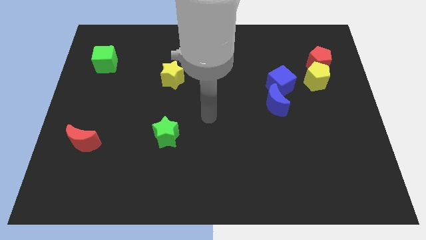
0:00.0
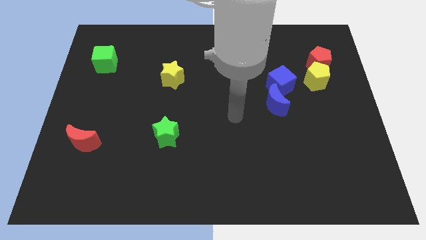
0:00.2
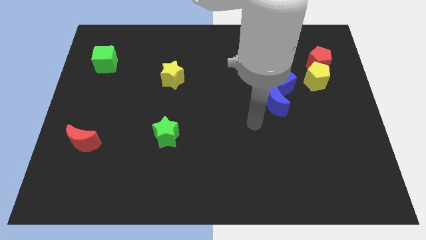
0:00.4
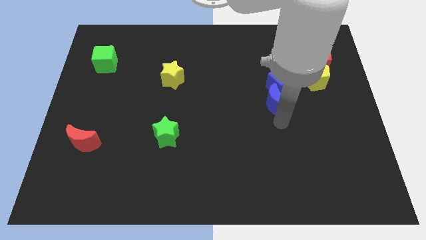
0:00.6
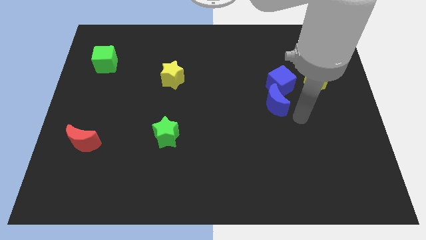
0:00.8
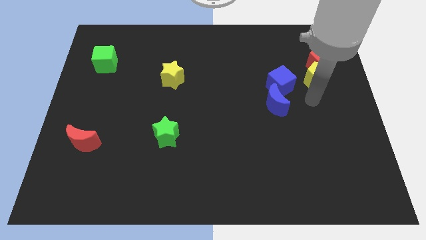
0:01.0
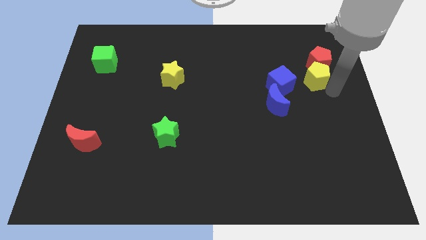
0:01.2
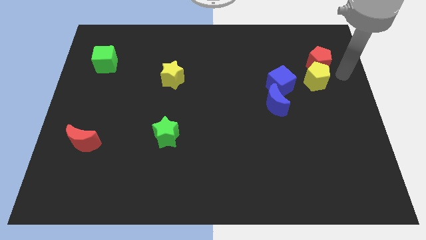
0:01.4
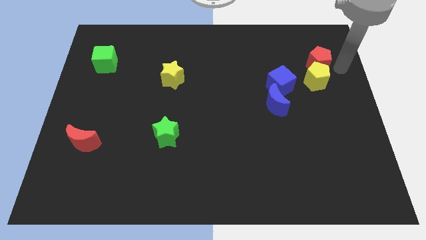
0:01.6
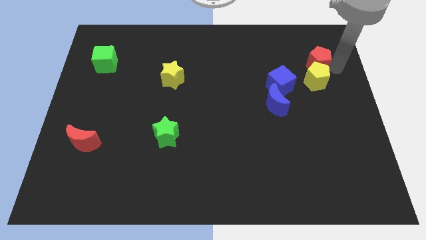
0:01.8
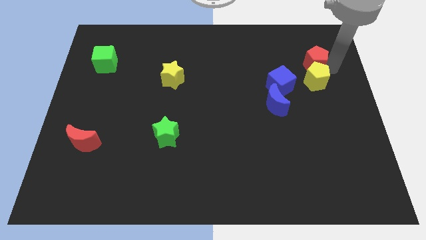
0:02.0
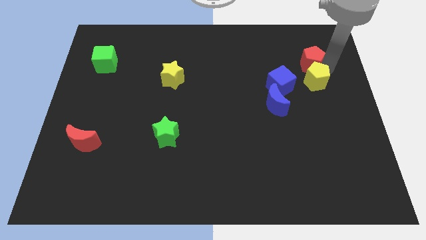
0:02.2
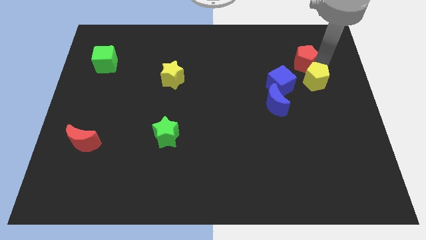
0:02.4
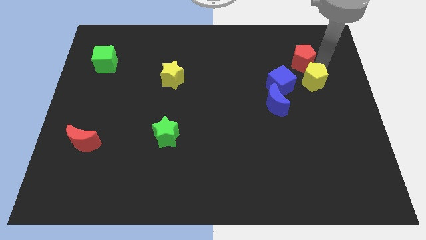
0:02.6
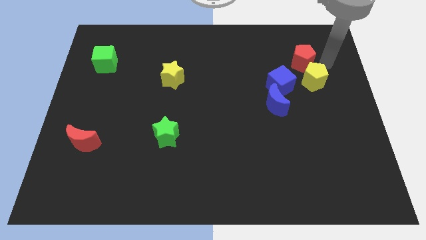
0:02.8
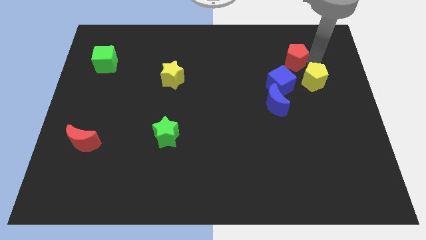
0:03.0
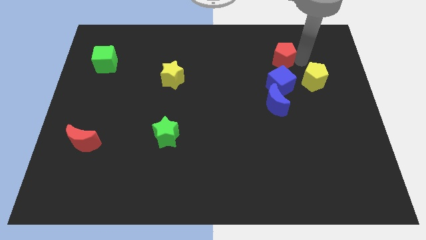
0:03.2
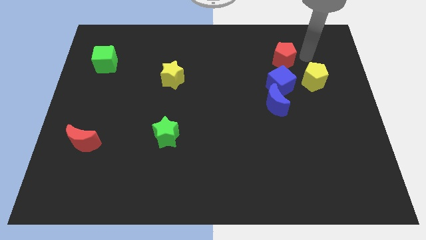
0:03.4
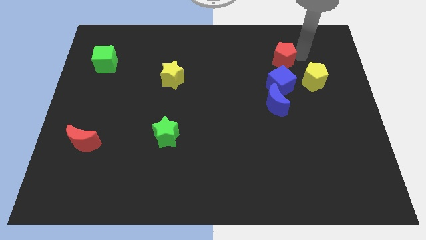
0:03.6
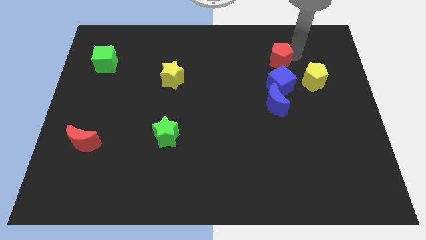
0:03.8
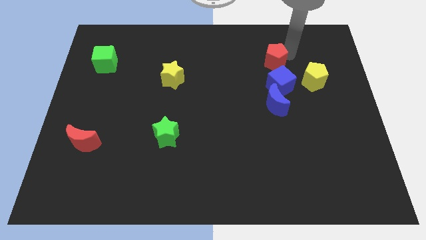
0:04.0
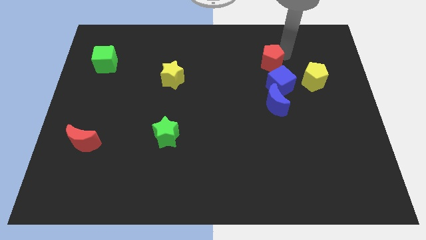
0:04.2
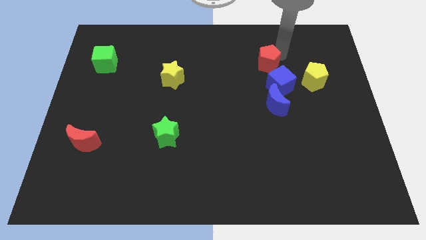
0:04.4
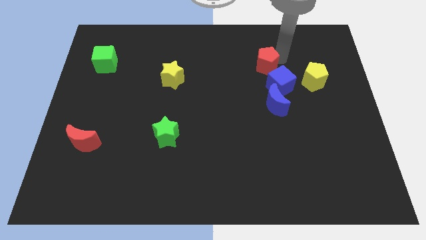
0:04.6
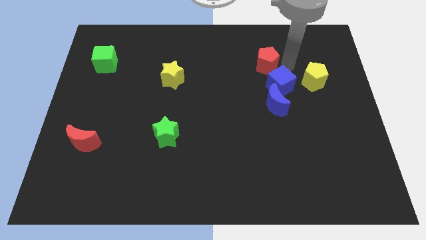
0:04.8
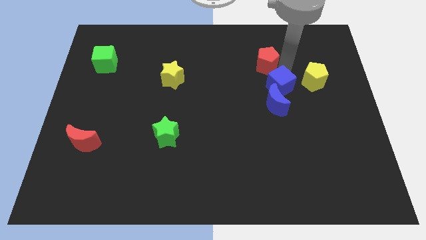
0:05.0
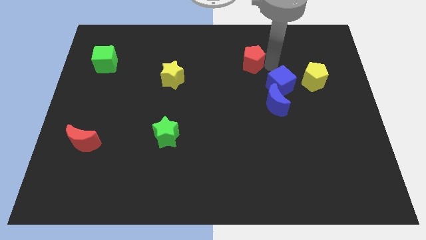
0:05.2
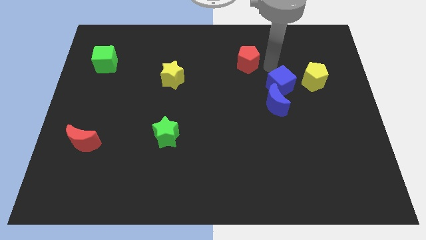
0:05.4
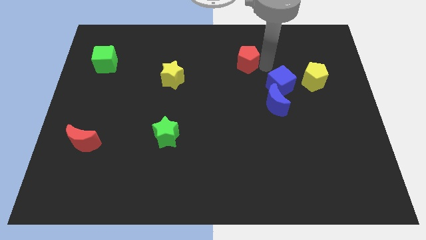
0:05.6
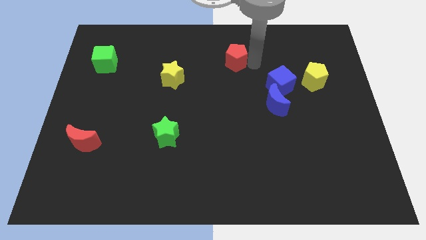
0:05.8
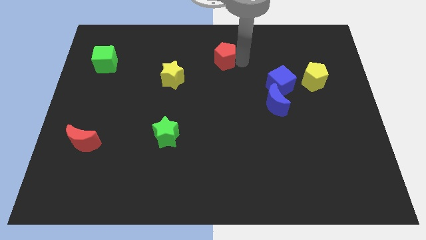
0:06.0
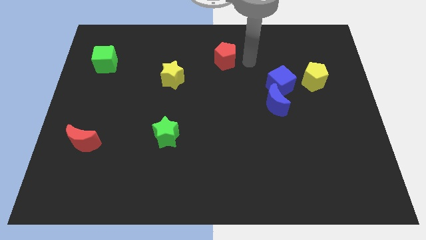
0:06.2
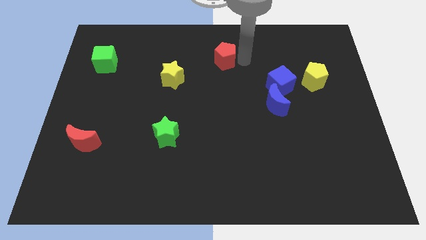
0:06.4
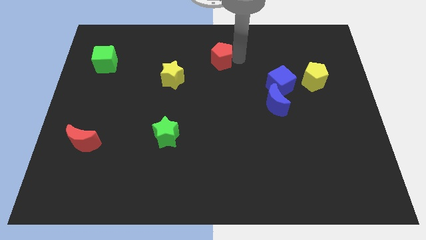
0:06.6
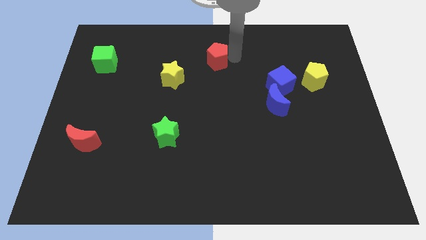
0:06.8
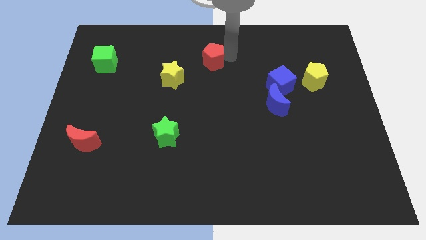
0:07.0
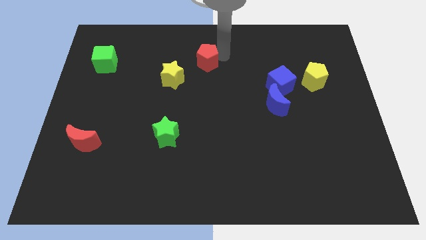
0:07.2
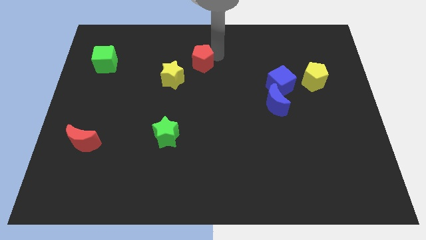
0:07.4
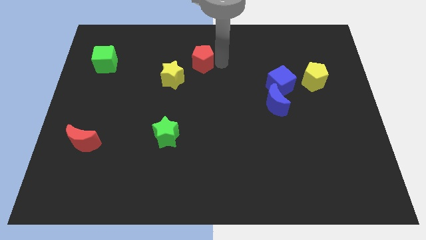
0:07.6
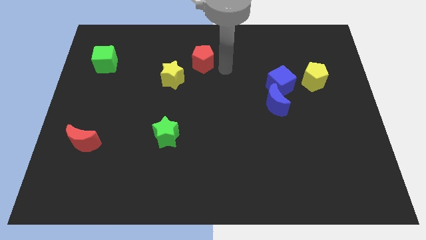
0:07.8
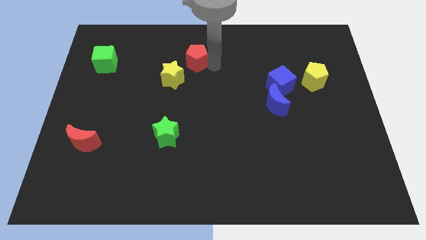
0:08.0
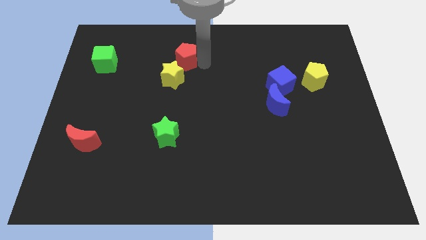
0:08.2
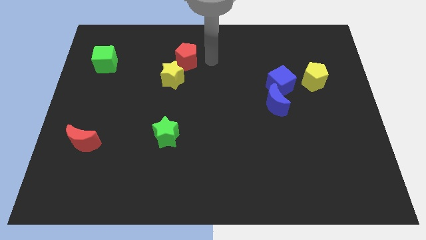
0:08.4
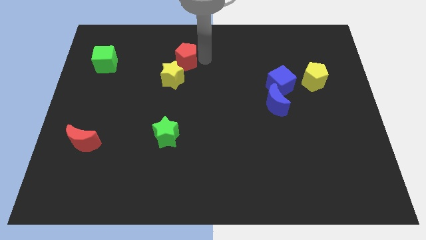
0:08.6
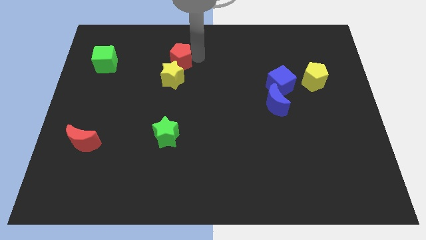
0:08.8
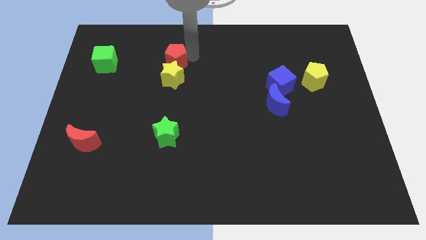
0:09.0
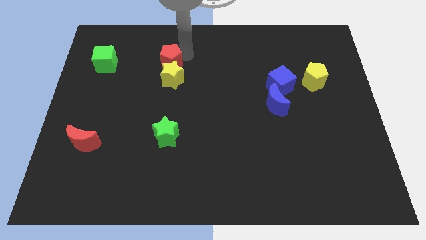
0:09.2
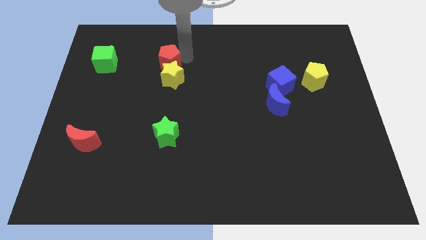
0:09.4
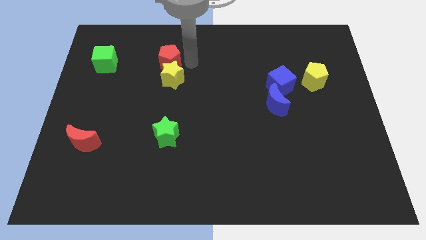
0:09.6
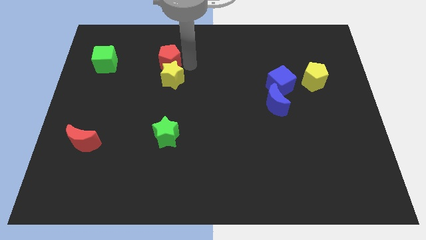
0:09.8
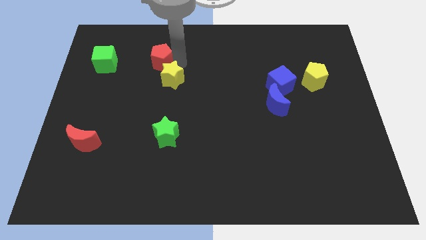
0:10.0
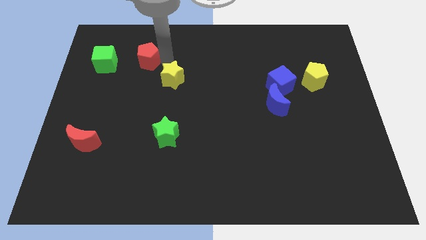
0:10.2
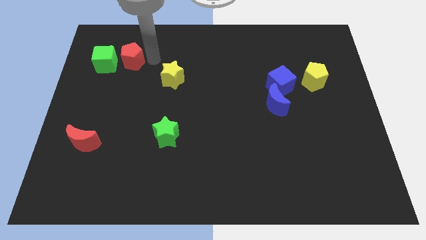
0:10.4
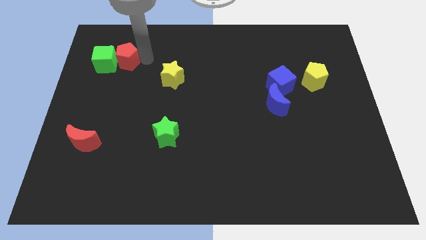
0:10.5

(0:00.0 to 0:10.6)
slide the red pentagon towards the green cube

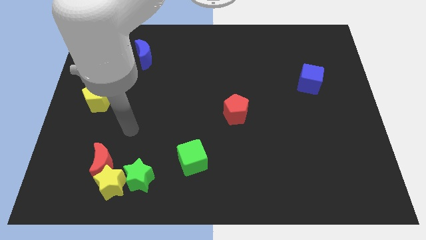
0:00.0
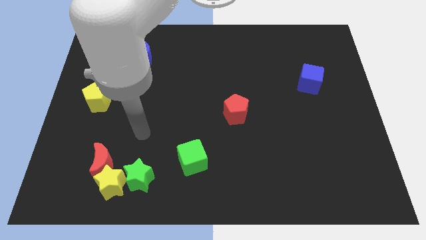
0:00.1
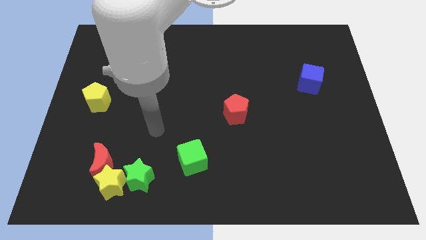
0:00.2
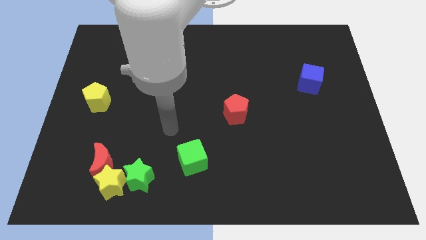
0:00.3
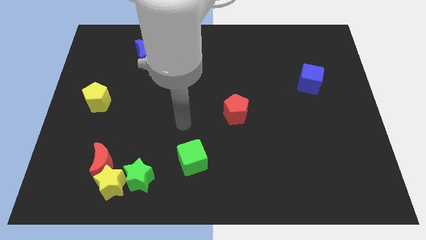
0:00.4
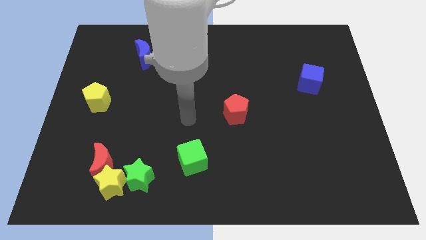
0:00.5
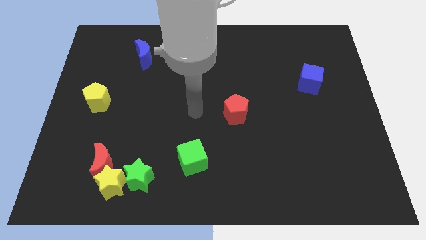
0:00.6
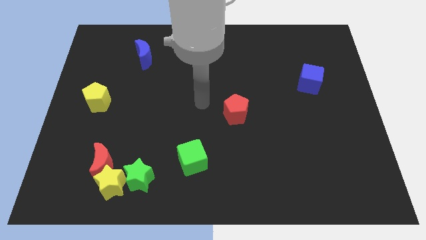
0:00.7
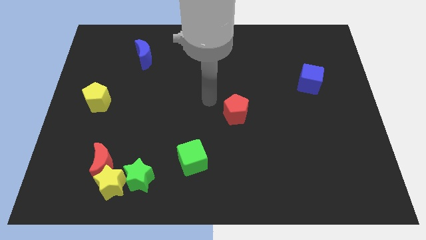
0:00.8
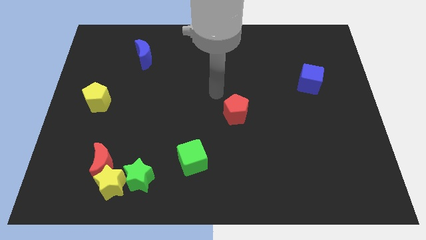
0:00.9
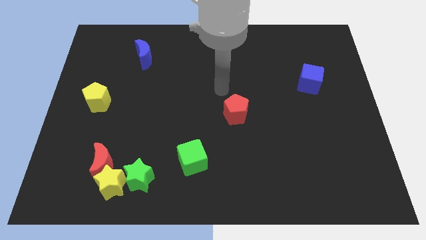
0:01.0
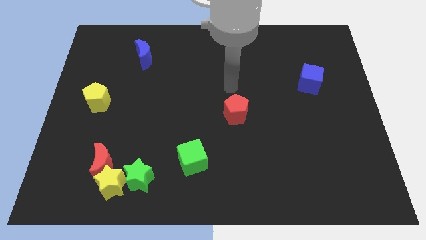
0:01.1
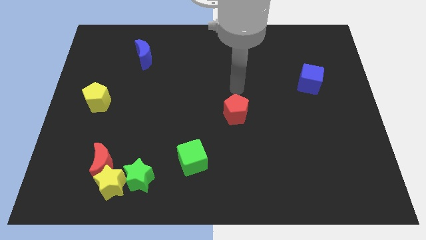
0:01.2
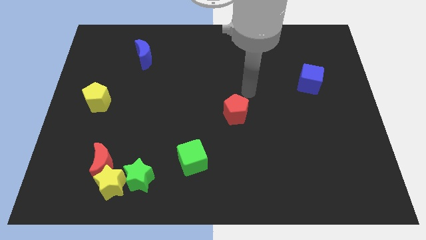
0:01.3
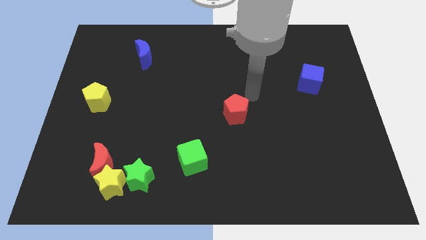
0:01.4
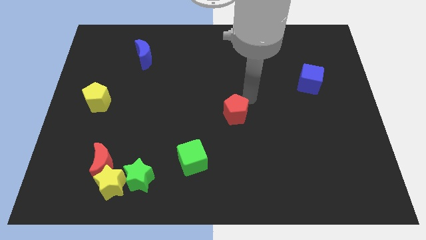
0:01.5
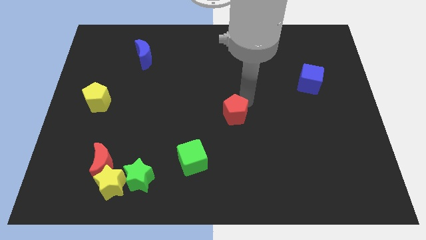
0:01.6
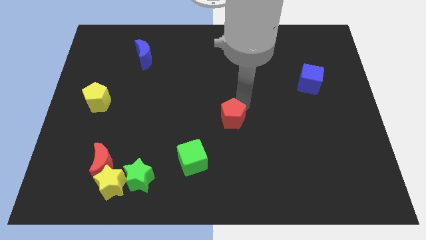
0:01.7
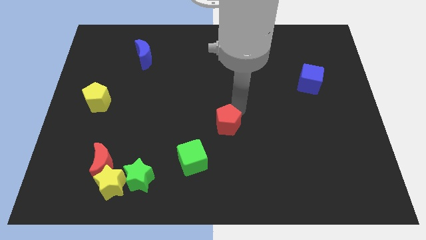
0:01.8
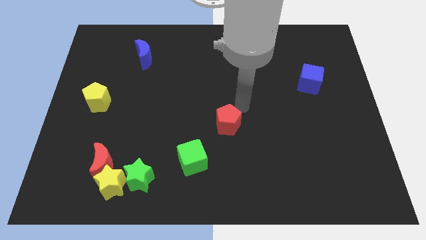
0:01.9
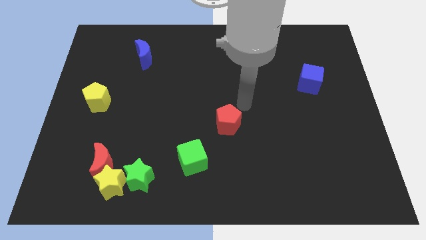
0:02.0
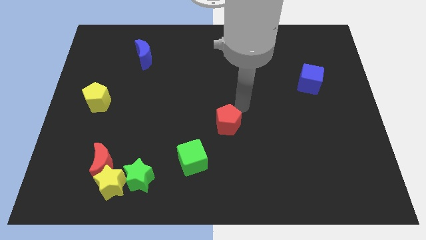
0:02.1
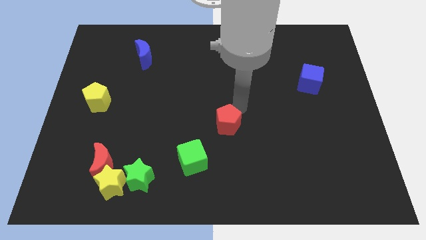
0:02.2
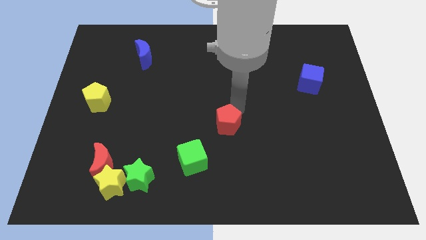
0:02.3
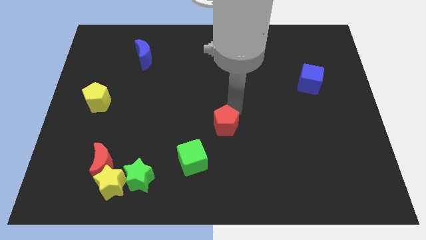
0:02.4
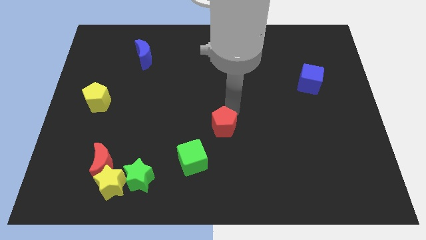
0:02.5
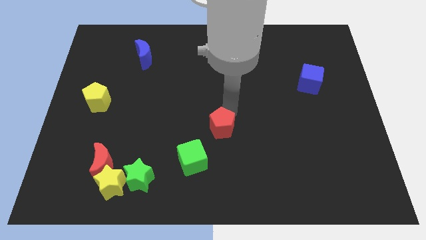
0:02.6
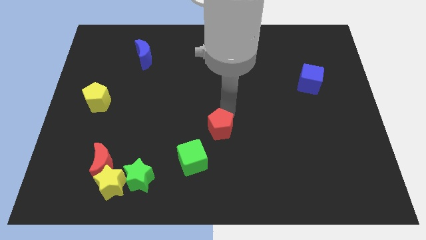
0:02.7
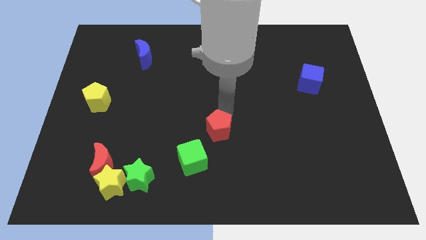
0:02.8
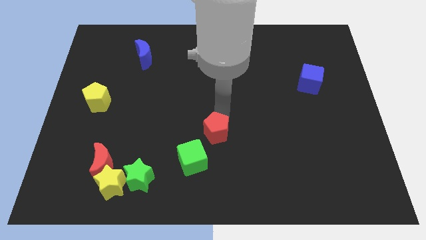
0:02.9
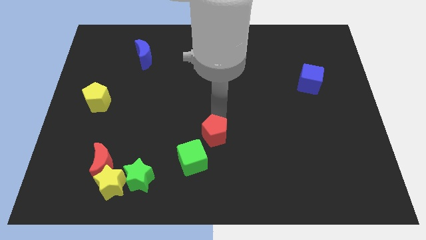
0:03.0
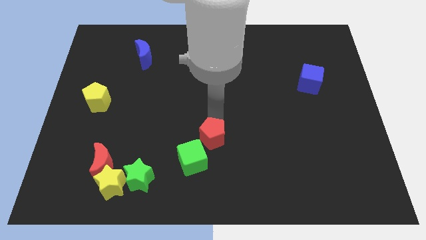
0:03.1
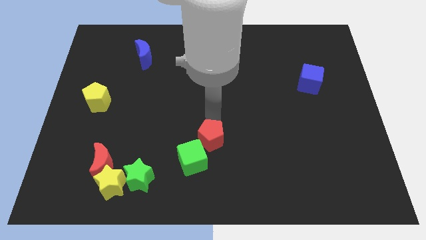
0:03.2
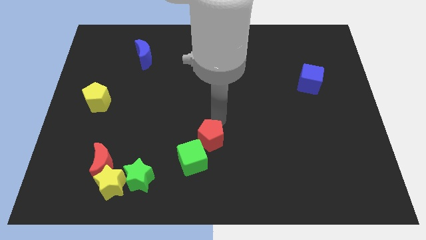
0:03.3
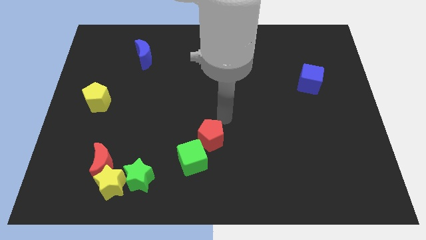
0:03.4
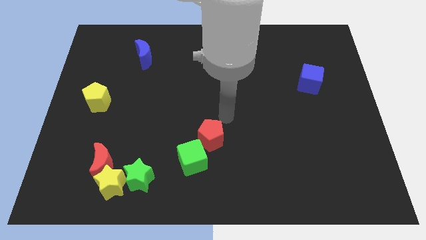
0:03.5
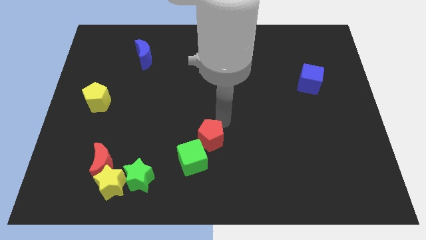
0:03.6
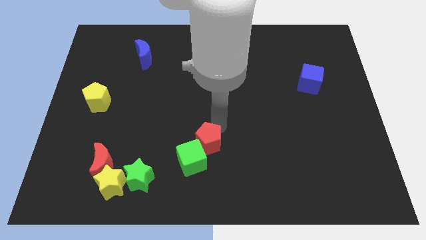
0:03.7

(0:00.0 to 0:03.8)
move the red pentagon next to the green cube
